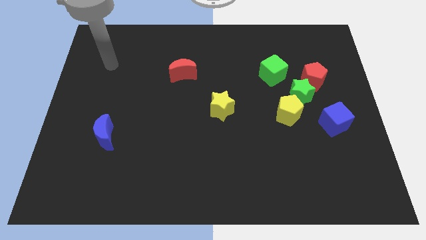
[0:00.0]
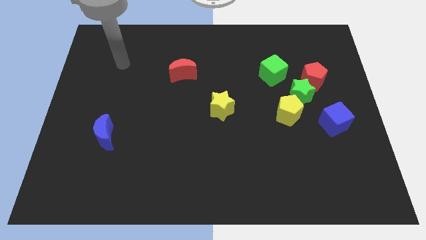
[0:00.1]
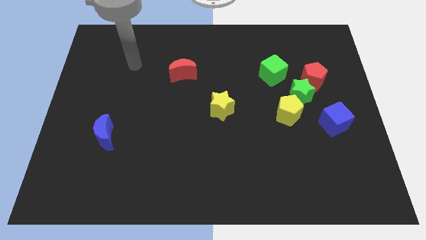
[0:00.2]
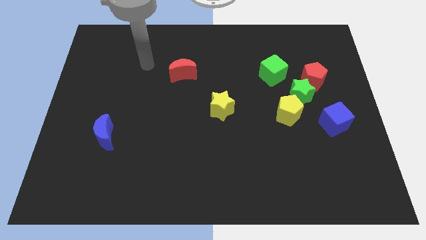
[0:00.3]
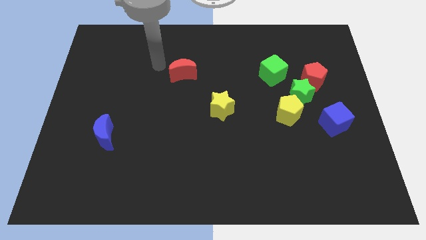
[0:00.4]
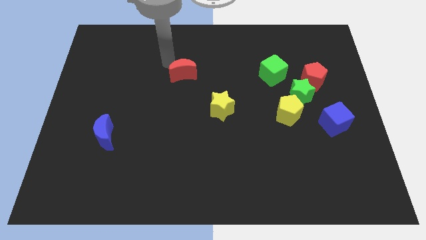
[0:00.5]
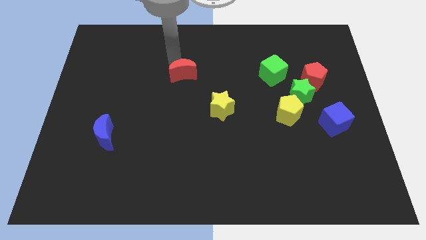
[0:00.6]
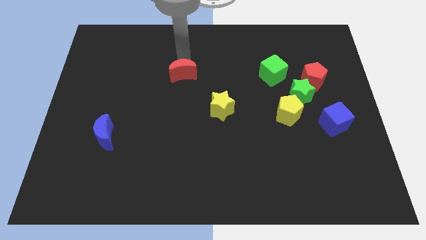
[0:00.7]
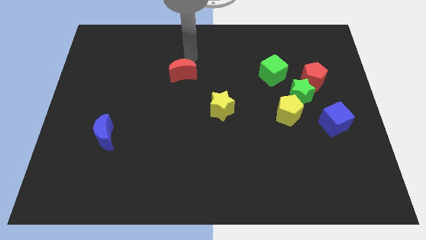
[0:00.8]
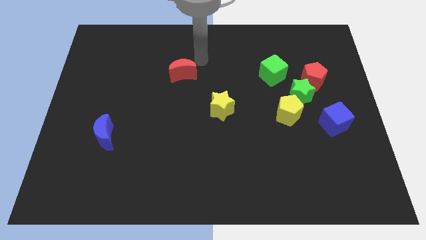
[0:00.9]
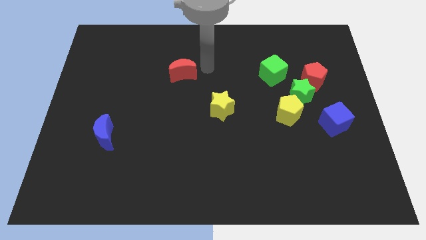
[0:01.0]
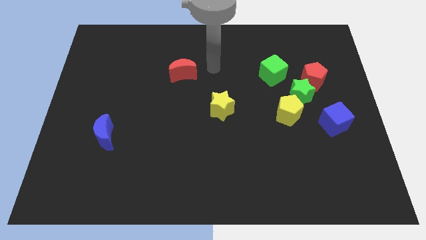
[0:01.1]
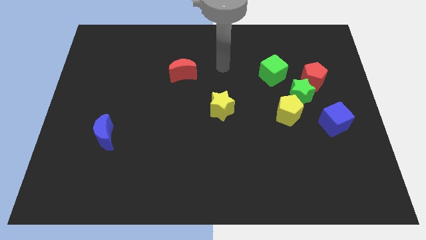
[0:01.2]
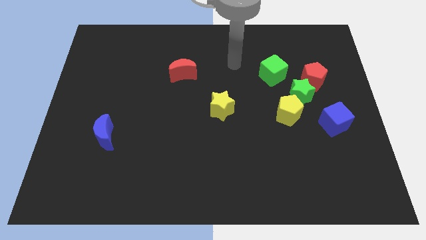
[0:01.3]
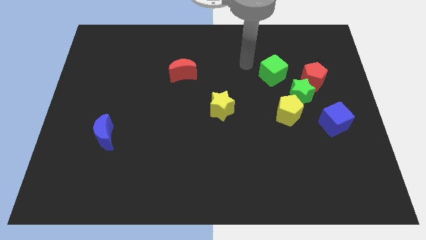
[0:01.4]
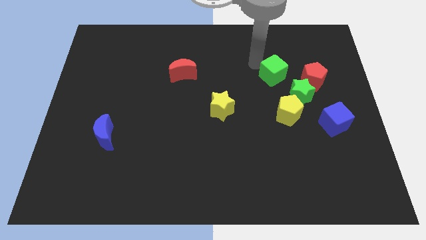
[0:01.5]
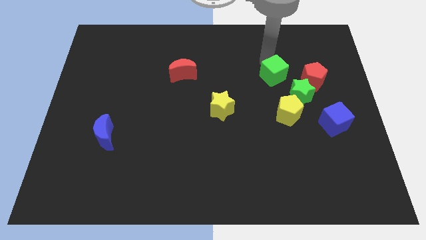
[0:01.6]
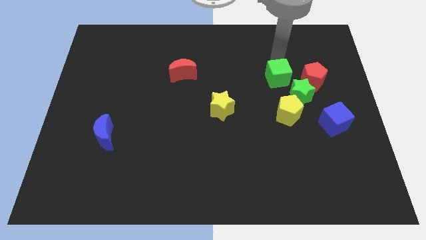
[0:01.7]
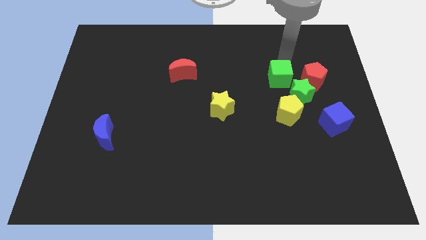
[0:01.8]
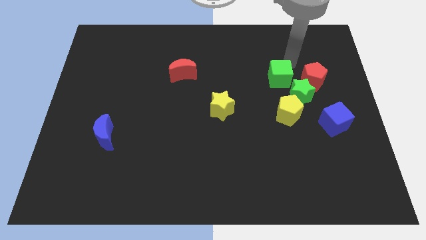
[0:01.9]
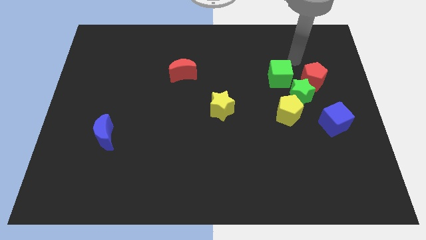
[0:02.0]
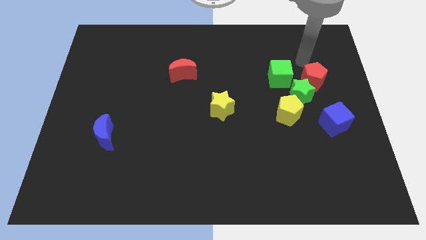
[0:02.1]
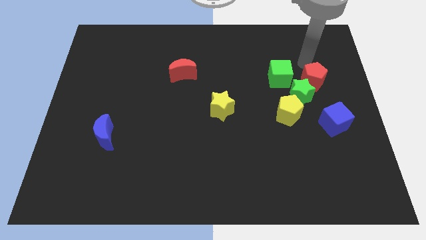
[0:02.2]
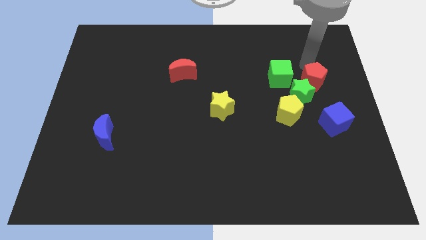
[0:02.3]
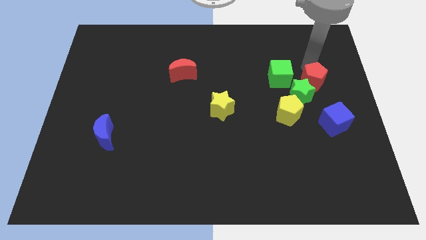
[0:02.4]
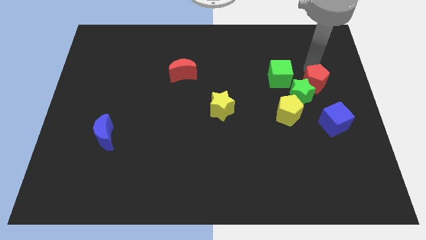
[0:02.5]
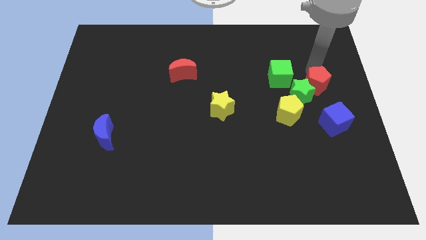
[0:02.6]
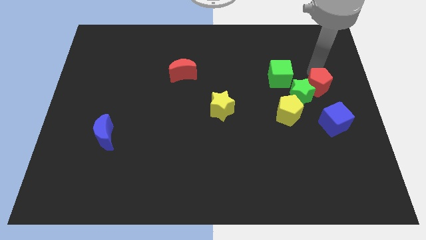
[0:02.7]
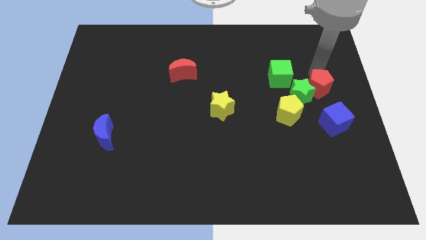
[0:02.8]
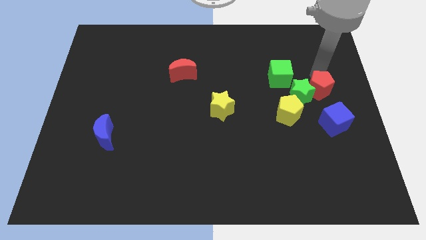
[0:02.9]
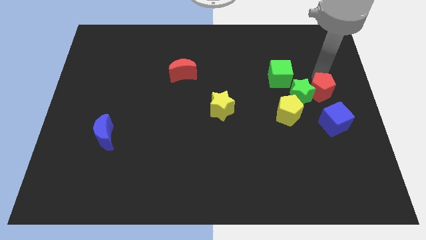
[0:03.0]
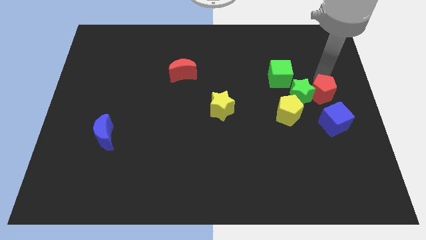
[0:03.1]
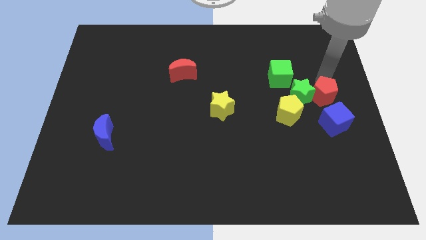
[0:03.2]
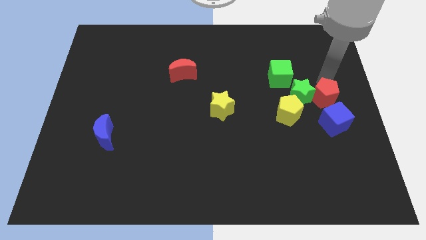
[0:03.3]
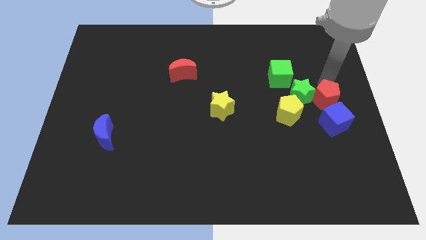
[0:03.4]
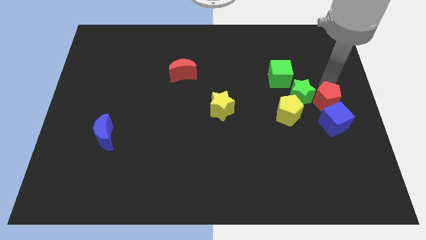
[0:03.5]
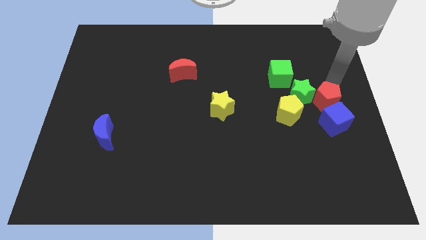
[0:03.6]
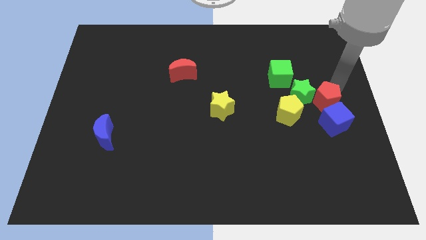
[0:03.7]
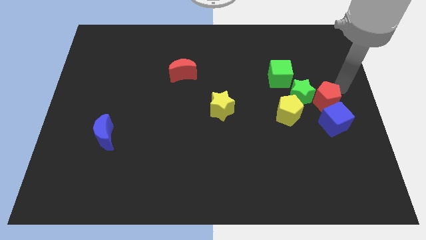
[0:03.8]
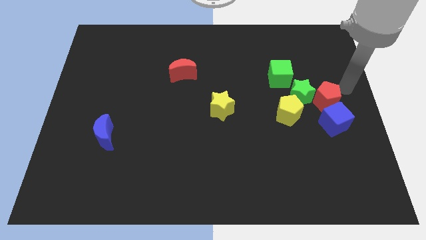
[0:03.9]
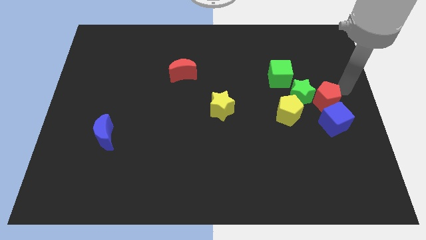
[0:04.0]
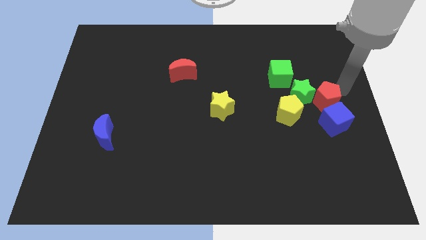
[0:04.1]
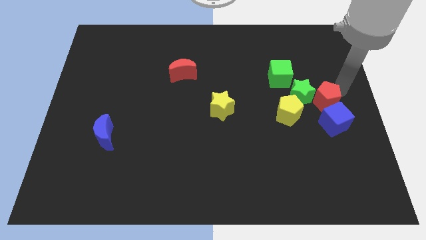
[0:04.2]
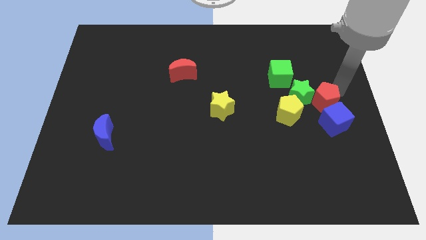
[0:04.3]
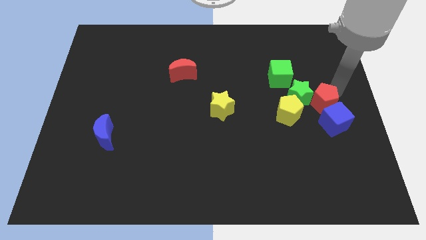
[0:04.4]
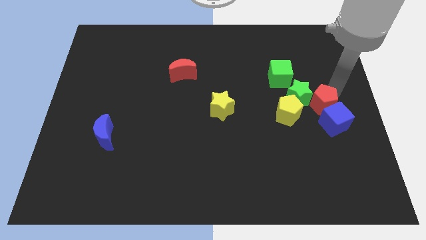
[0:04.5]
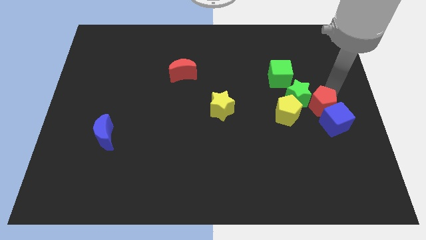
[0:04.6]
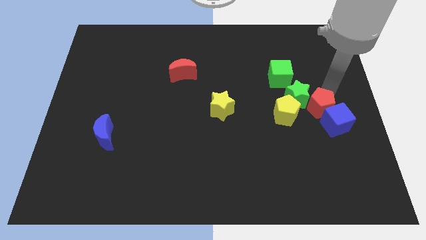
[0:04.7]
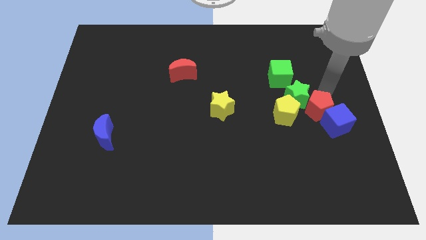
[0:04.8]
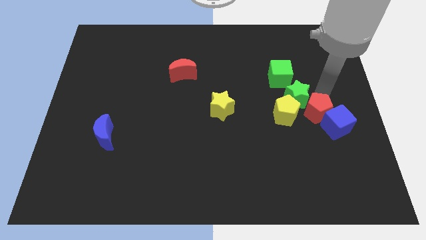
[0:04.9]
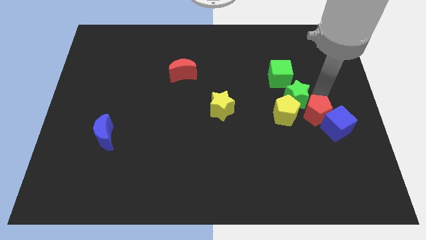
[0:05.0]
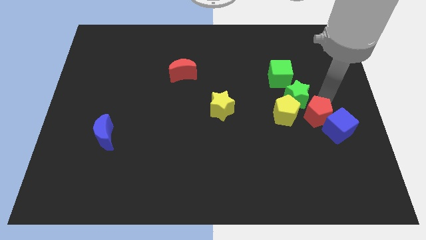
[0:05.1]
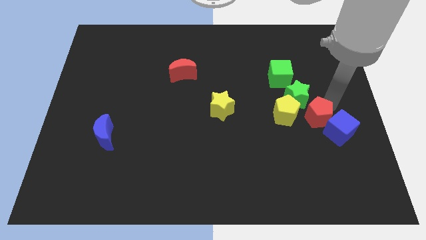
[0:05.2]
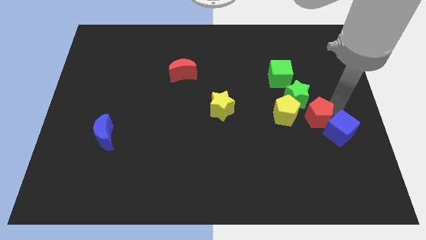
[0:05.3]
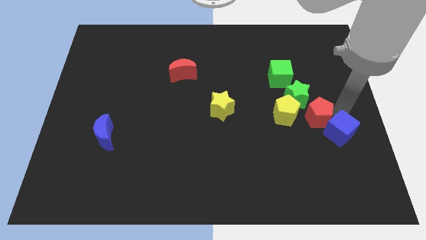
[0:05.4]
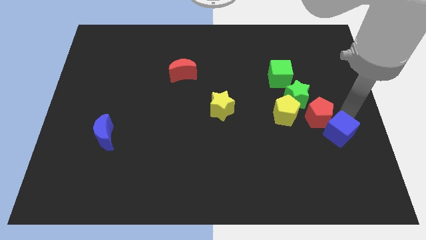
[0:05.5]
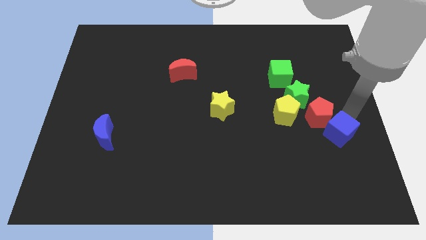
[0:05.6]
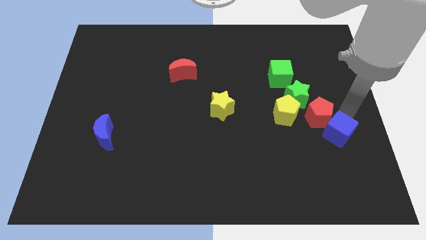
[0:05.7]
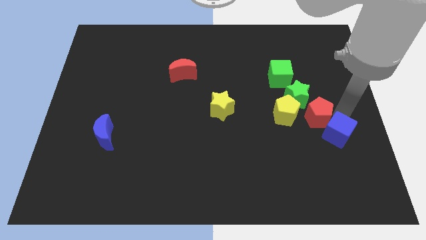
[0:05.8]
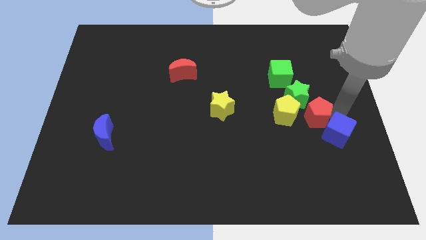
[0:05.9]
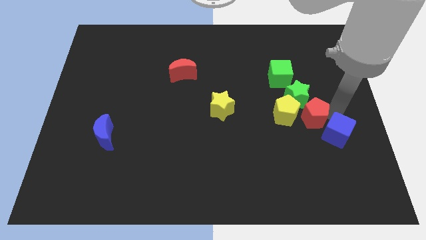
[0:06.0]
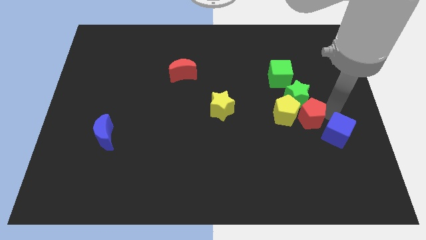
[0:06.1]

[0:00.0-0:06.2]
push the red pentagon towards the yellow pentagon
